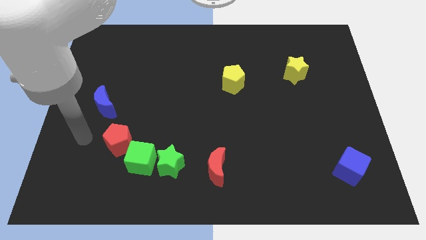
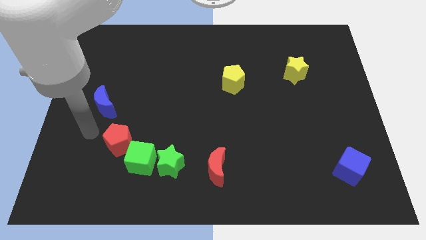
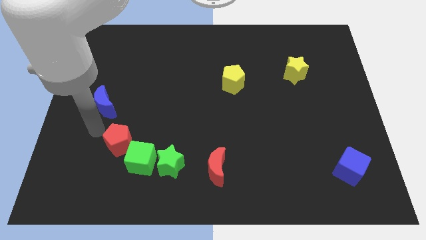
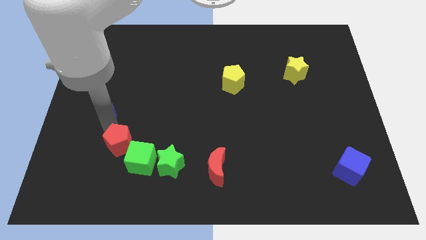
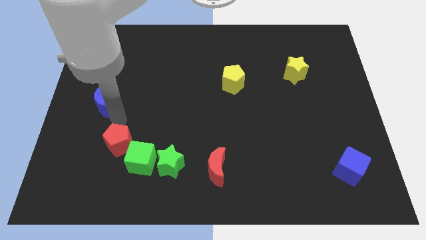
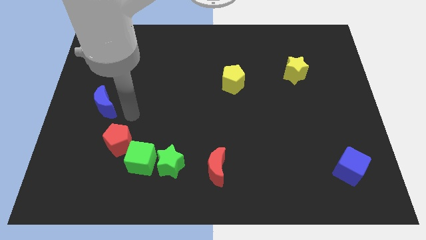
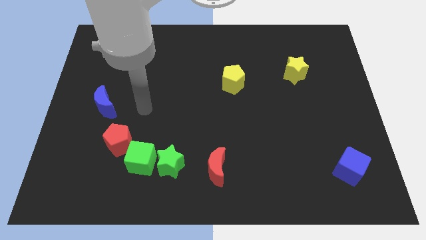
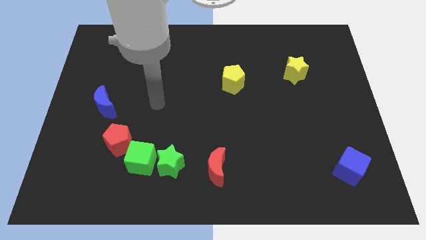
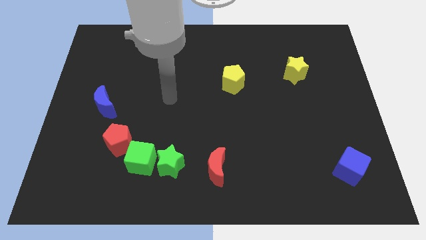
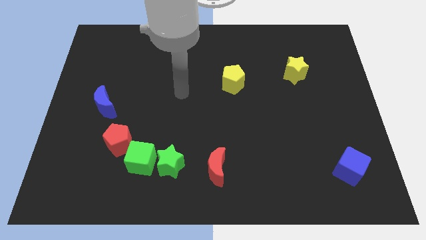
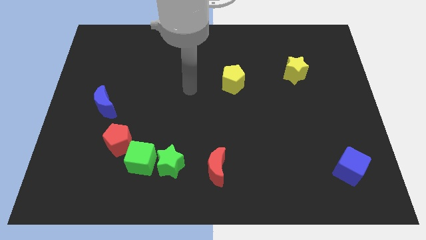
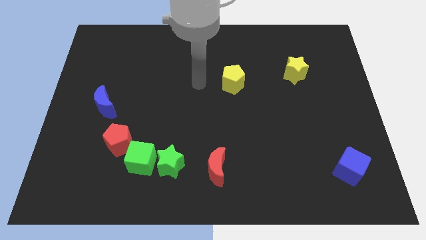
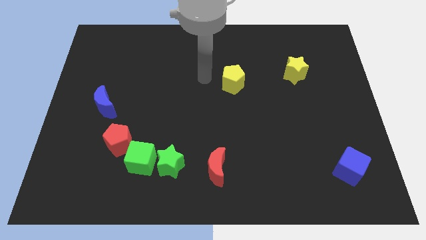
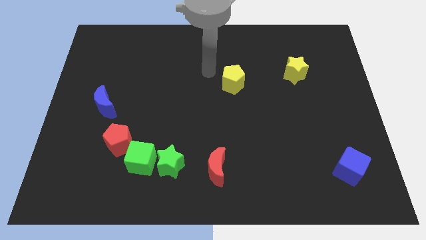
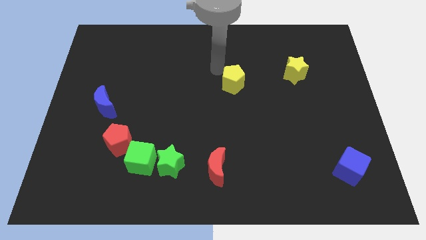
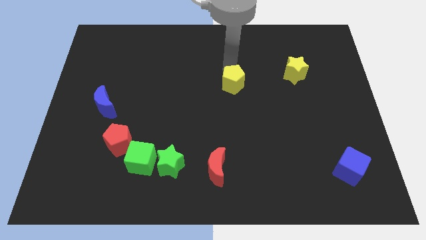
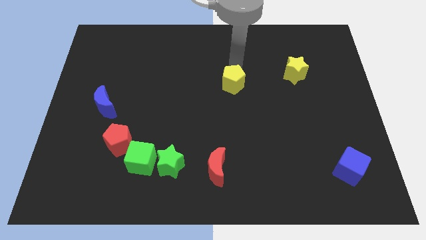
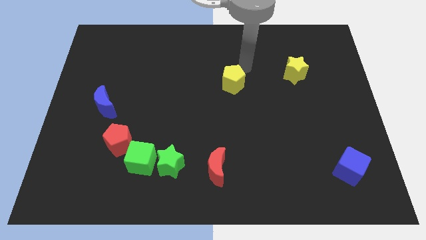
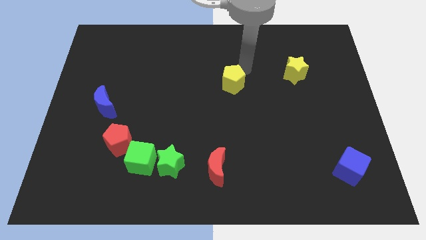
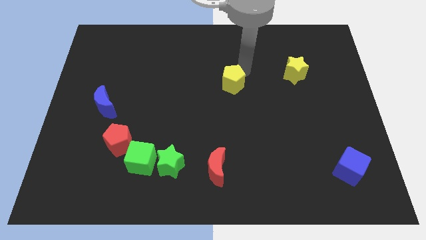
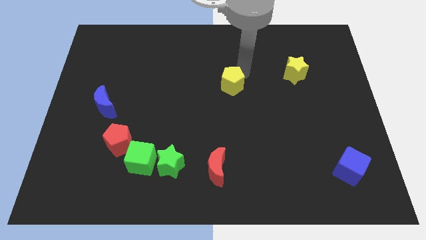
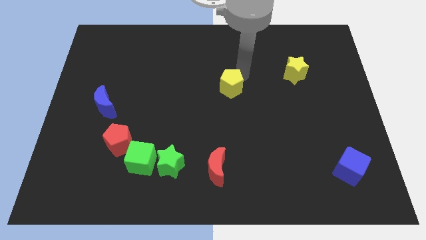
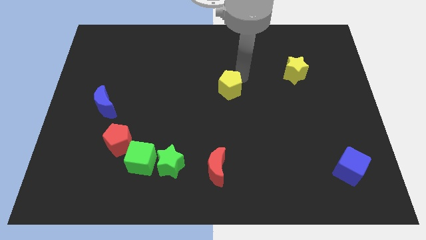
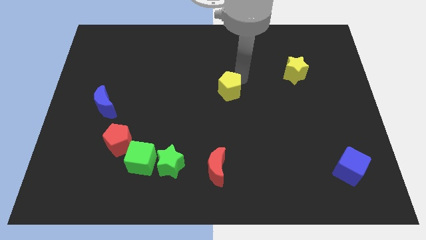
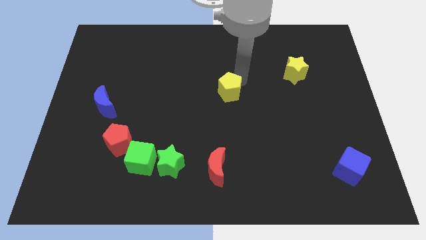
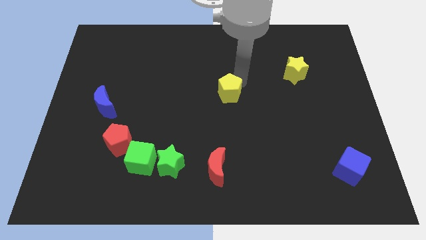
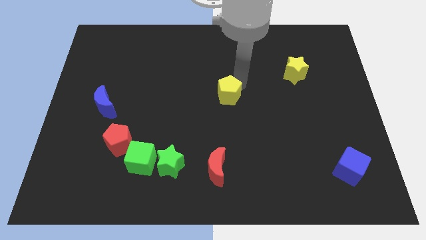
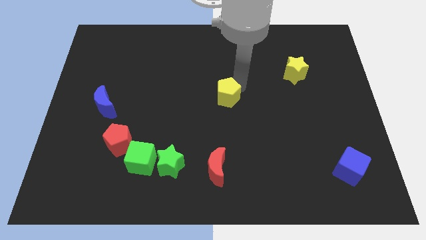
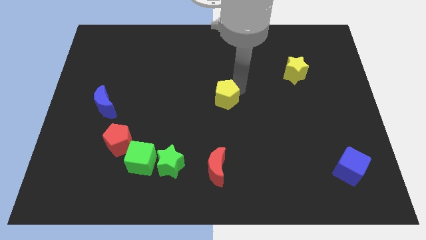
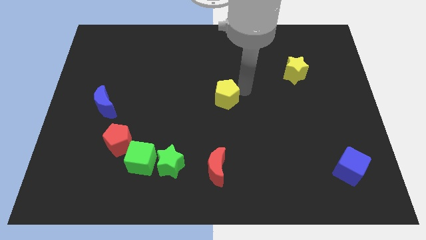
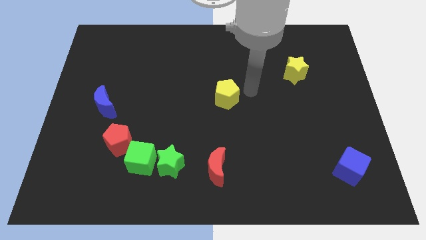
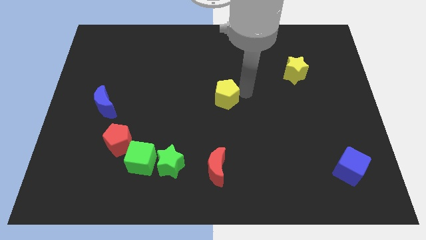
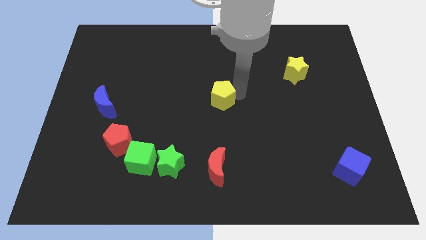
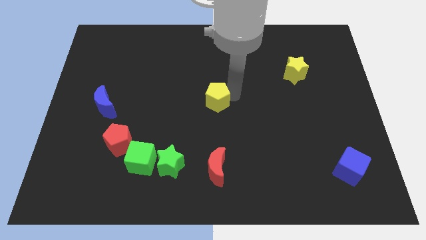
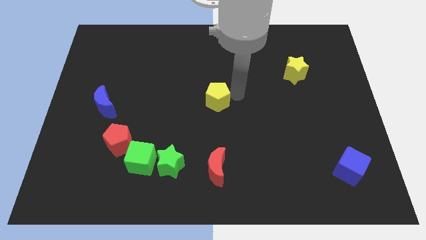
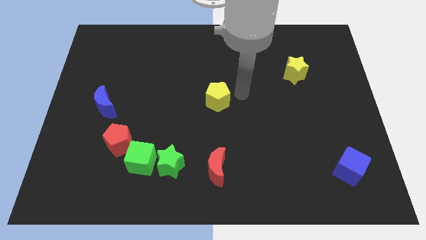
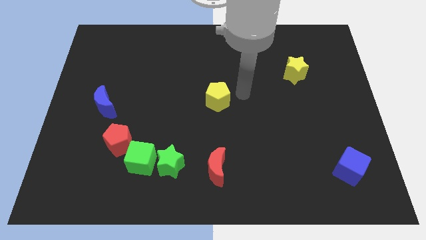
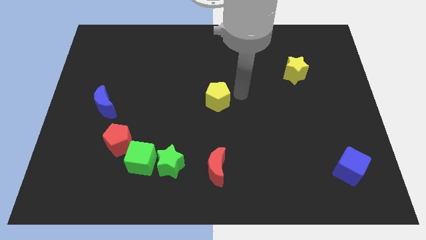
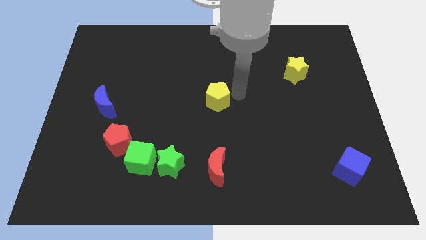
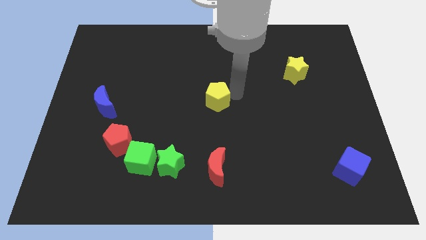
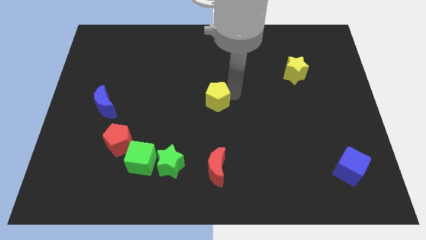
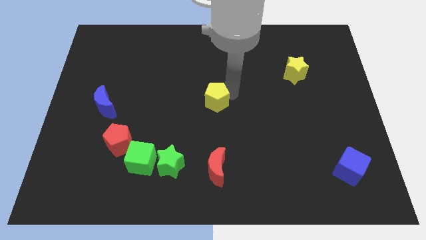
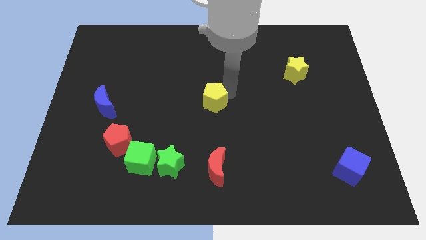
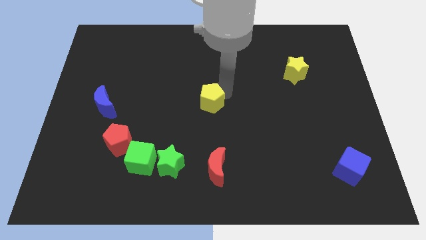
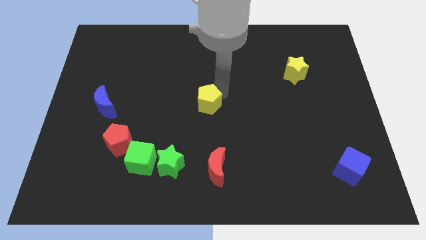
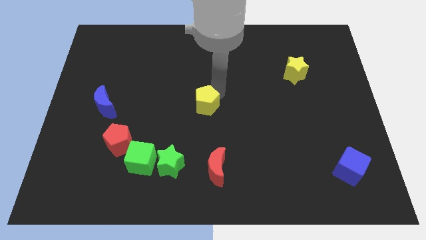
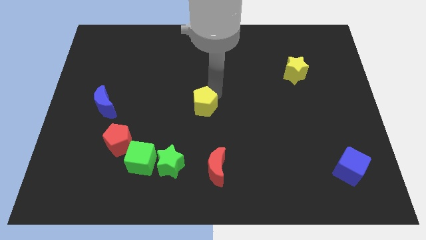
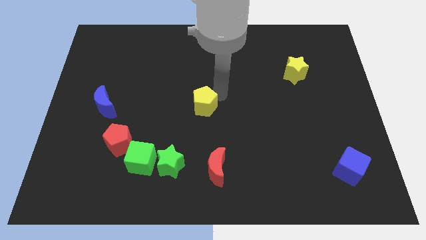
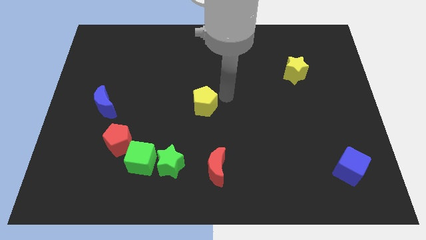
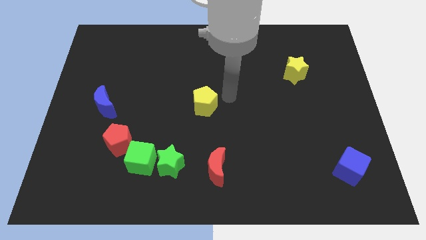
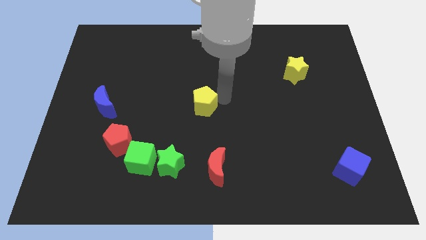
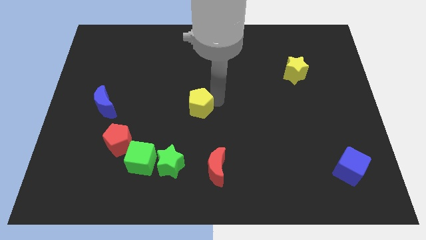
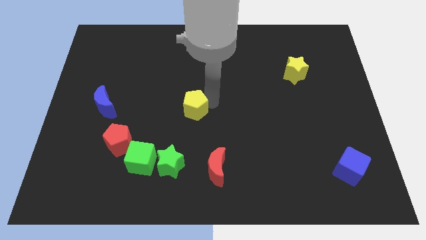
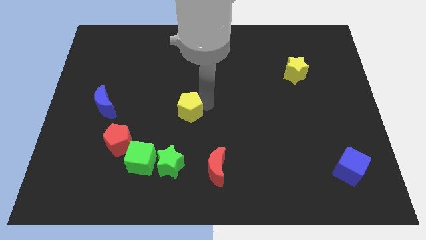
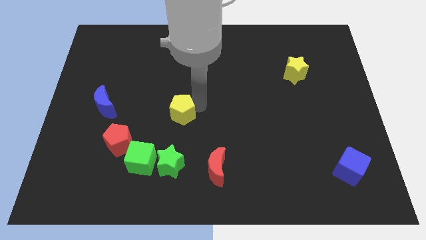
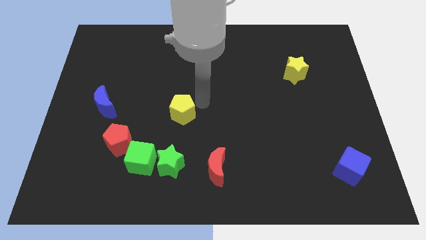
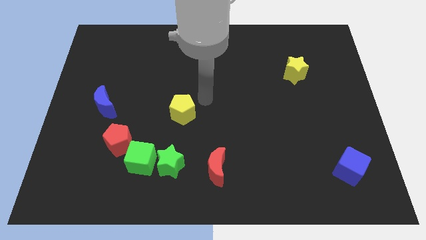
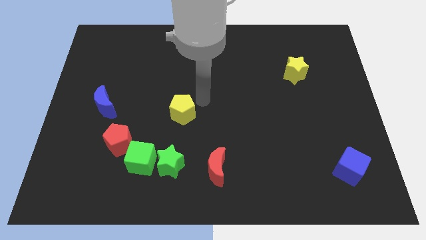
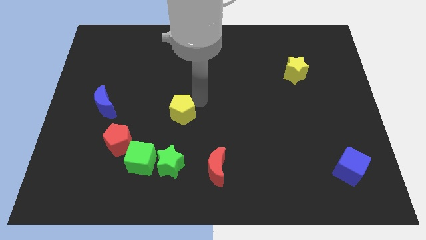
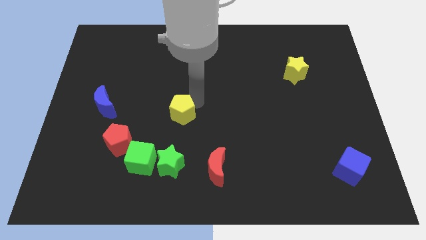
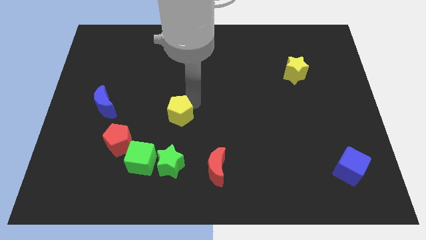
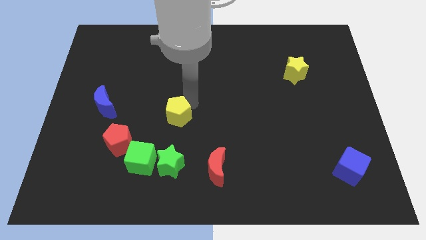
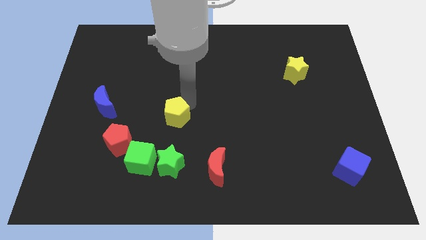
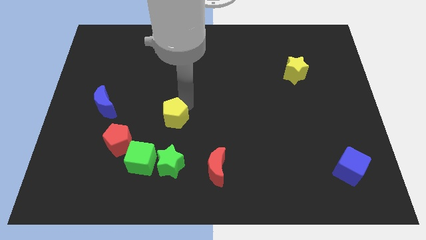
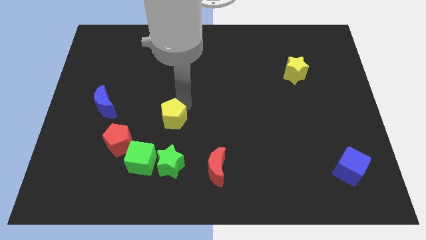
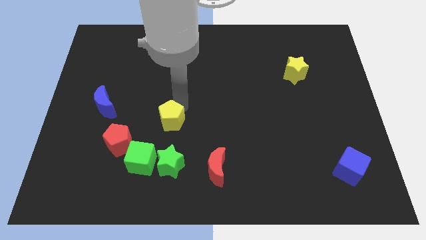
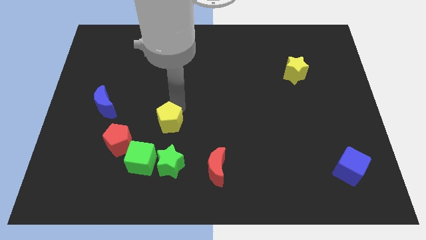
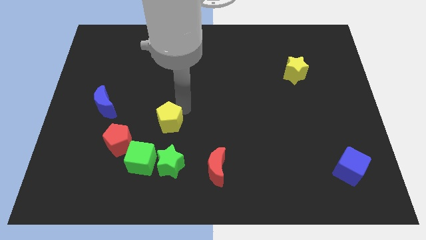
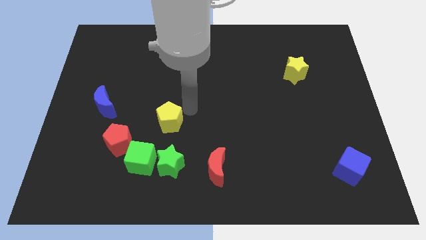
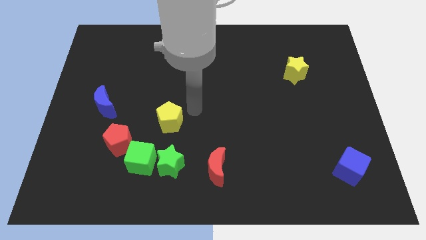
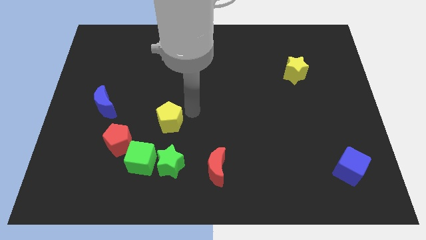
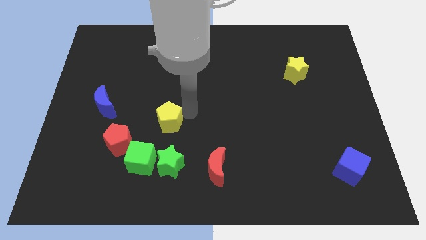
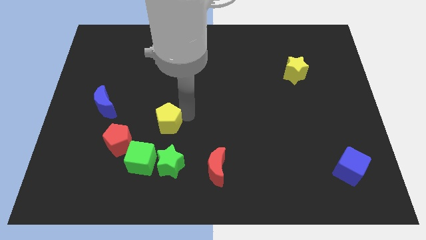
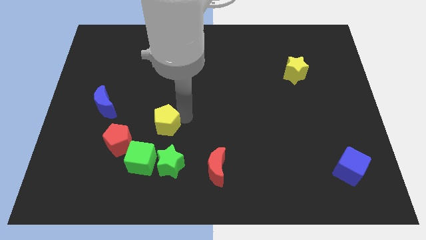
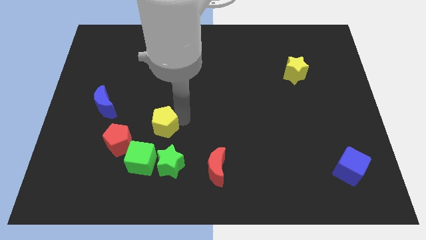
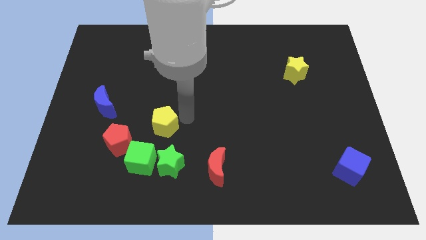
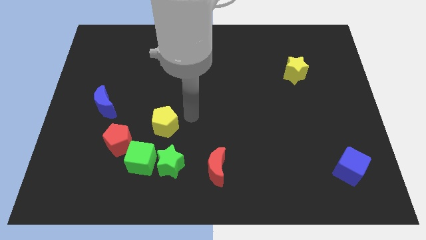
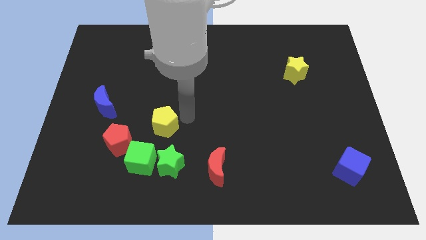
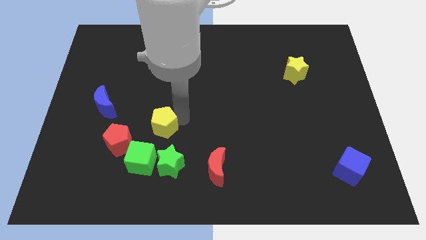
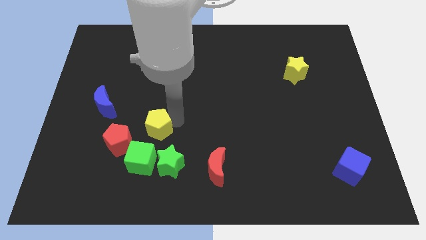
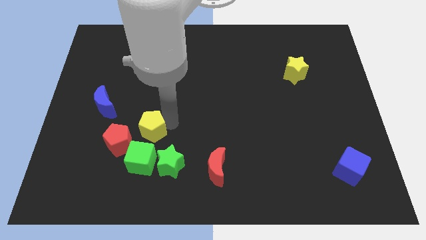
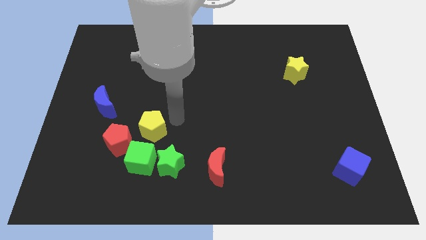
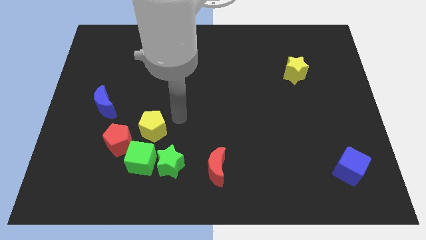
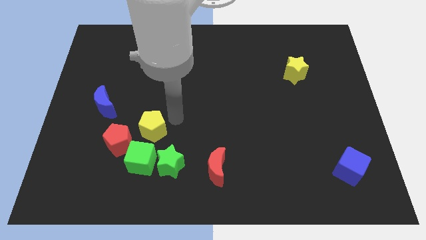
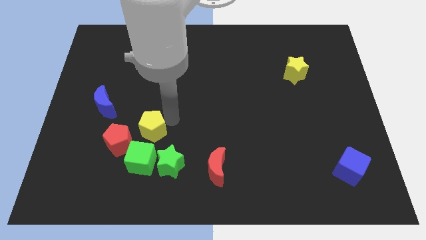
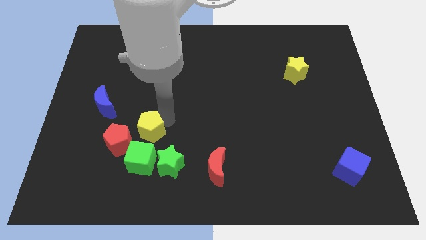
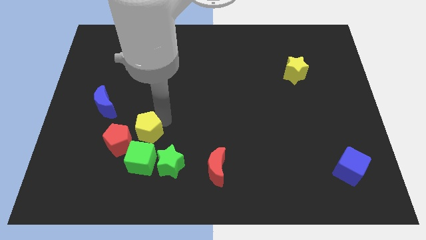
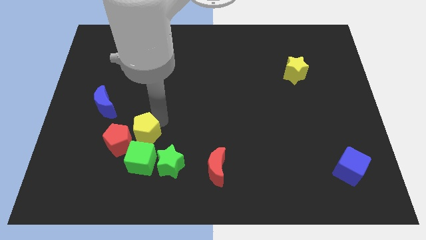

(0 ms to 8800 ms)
put the yellow pentagon next to the red pentagon
